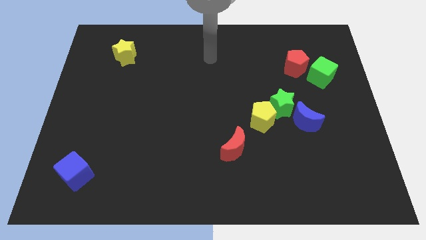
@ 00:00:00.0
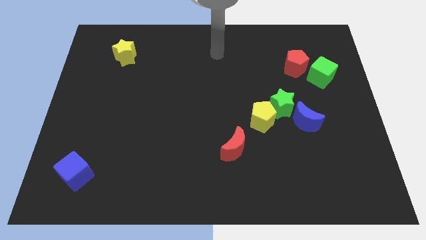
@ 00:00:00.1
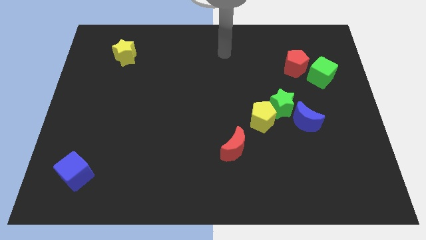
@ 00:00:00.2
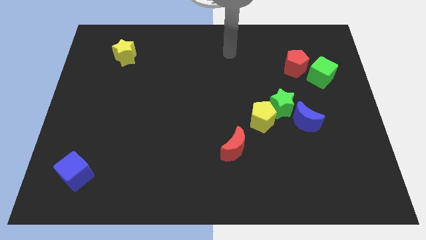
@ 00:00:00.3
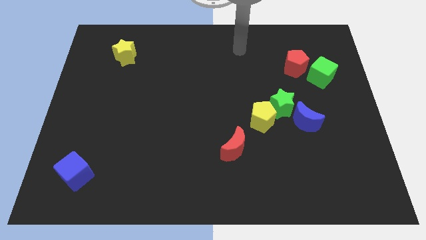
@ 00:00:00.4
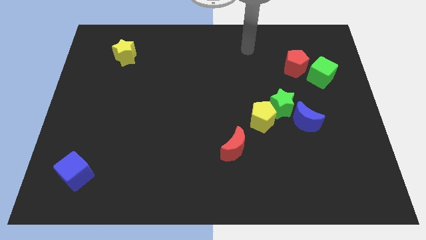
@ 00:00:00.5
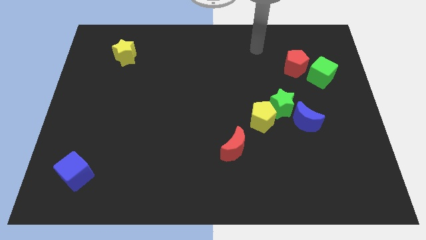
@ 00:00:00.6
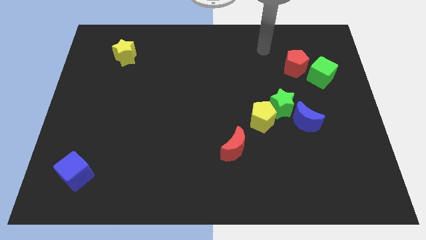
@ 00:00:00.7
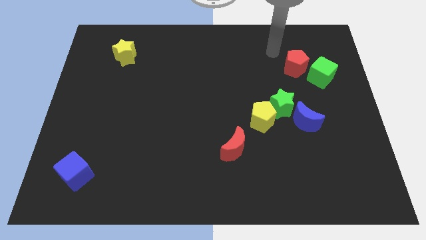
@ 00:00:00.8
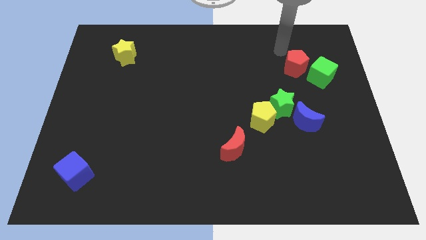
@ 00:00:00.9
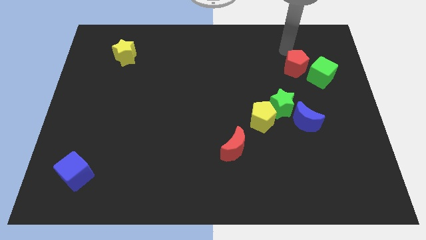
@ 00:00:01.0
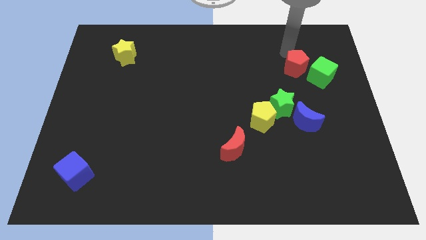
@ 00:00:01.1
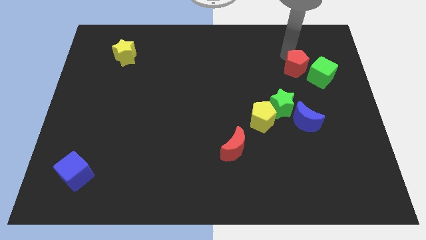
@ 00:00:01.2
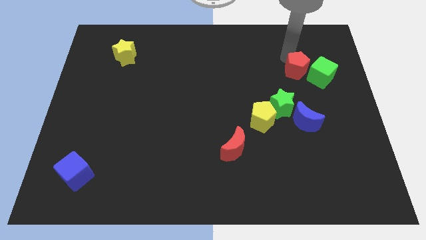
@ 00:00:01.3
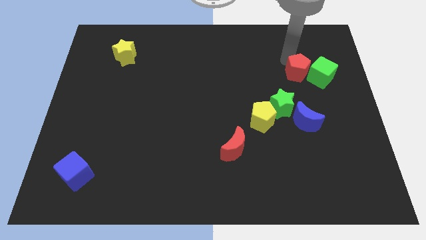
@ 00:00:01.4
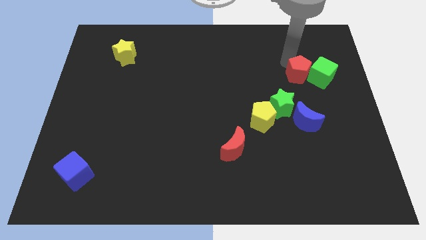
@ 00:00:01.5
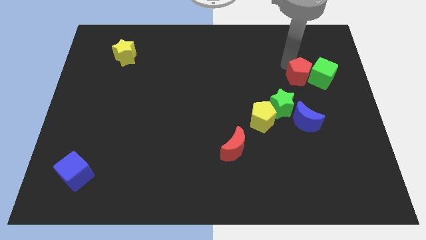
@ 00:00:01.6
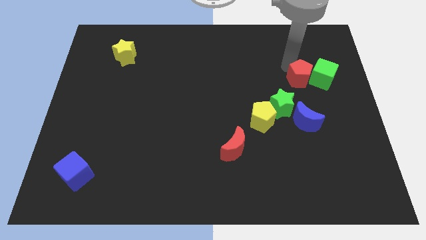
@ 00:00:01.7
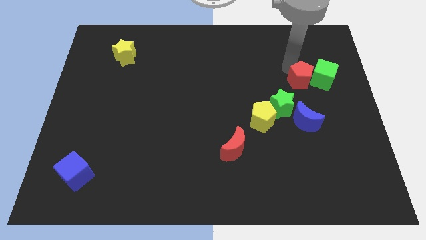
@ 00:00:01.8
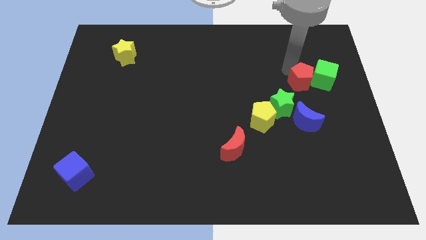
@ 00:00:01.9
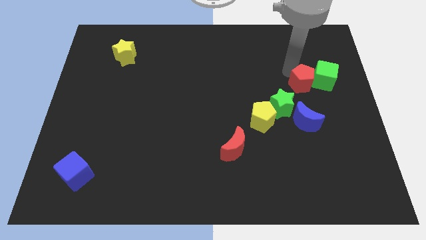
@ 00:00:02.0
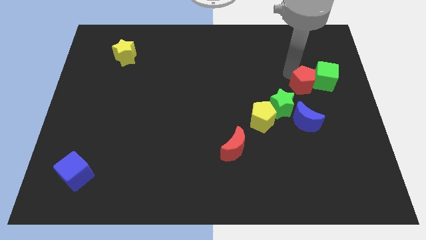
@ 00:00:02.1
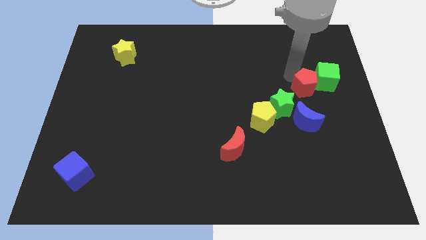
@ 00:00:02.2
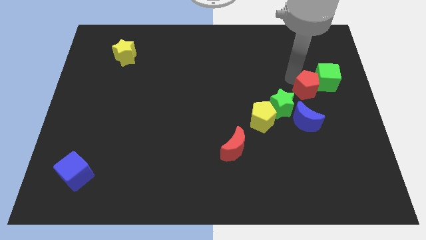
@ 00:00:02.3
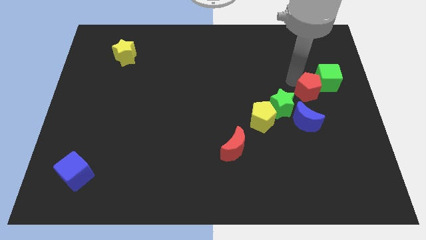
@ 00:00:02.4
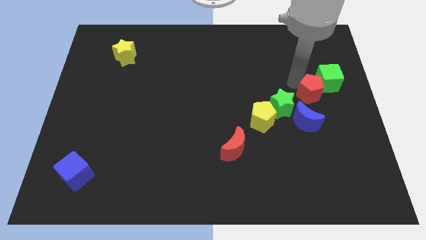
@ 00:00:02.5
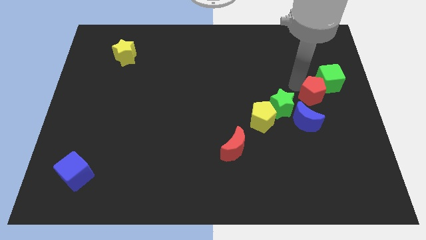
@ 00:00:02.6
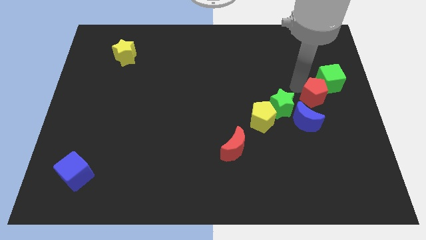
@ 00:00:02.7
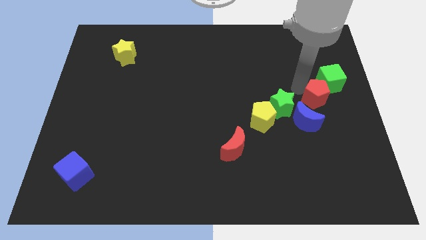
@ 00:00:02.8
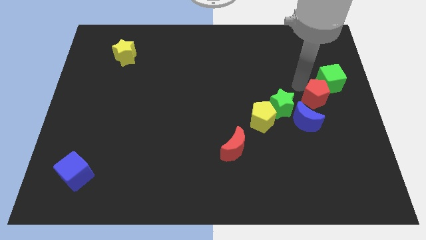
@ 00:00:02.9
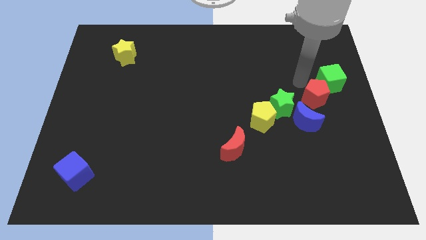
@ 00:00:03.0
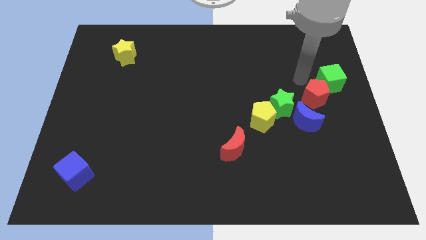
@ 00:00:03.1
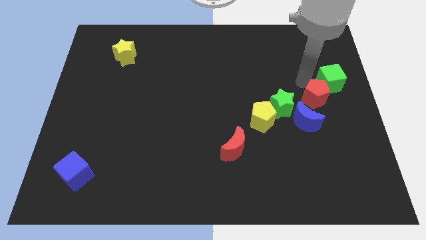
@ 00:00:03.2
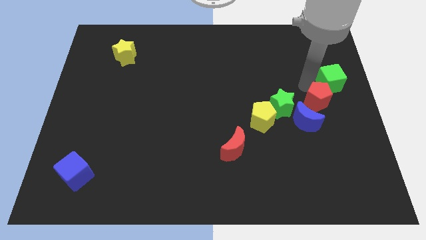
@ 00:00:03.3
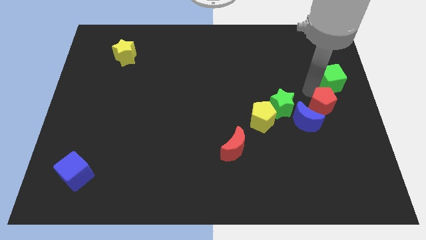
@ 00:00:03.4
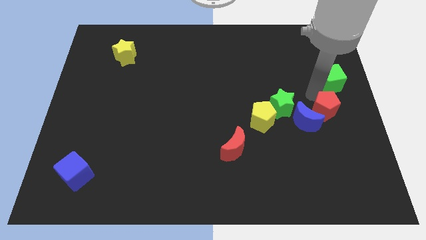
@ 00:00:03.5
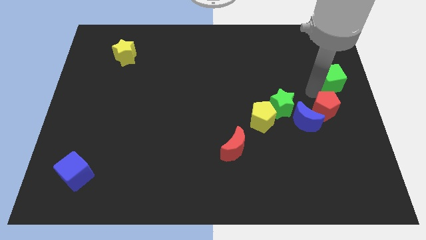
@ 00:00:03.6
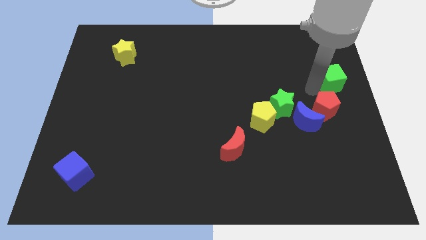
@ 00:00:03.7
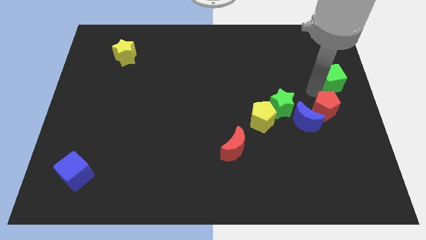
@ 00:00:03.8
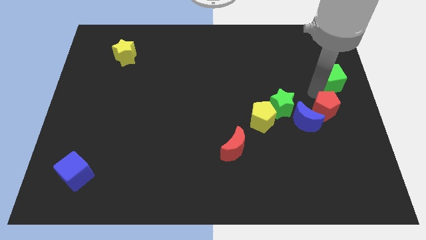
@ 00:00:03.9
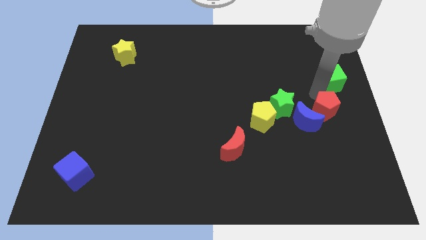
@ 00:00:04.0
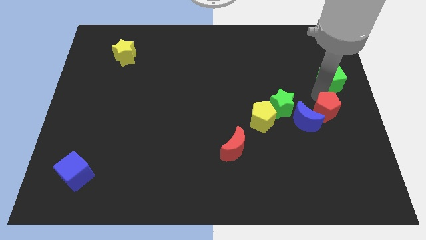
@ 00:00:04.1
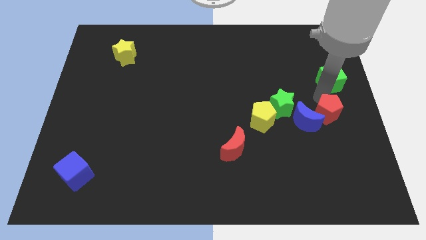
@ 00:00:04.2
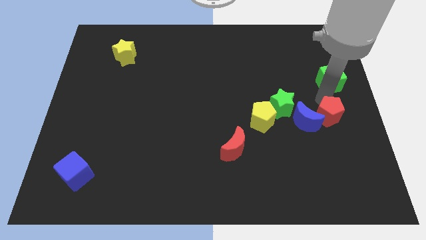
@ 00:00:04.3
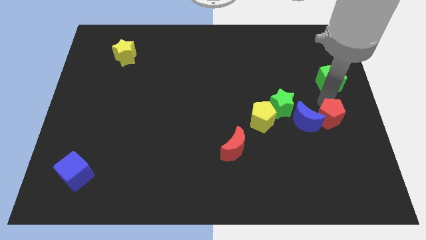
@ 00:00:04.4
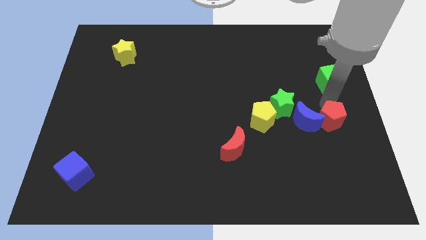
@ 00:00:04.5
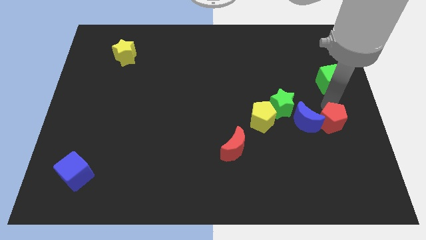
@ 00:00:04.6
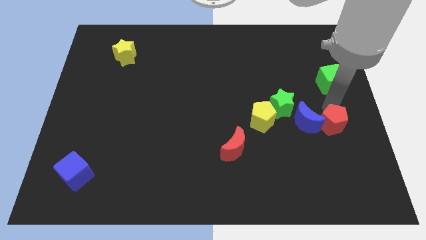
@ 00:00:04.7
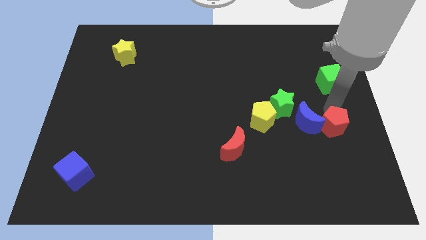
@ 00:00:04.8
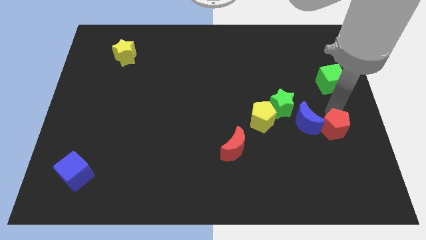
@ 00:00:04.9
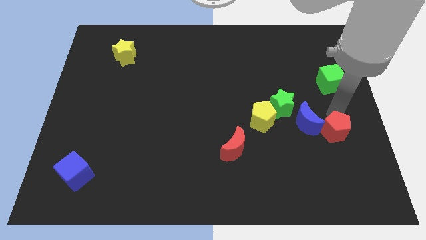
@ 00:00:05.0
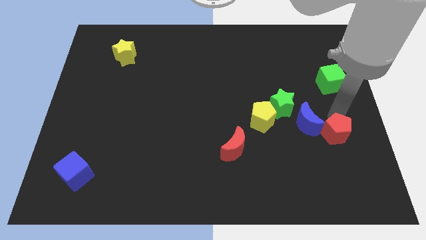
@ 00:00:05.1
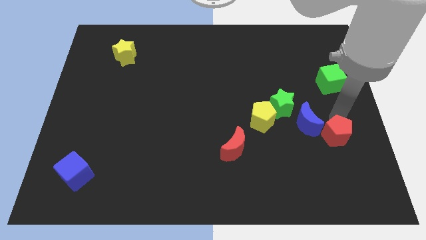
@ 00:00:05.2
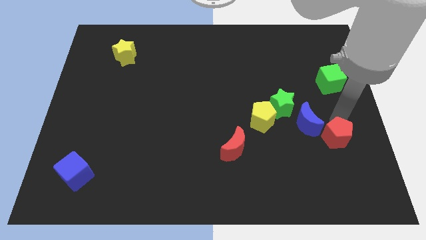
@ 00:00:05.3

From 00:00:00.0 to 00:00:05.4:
move the red pentagon down

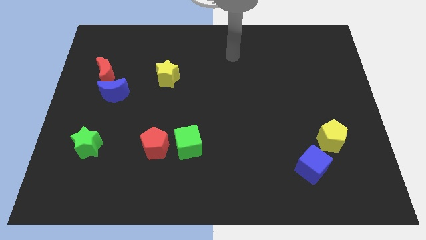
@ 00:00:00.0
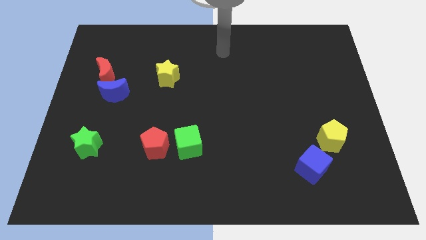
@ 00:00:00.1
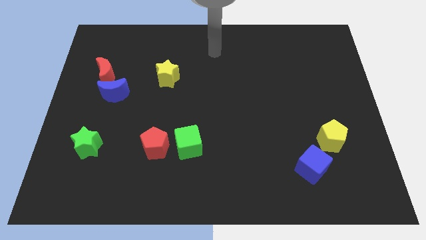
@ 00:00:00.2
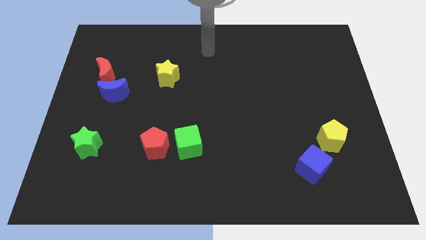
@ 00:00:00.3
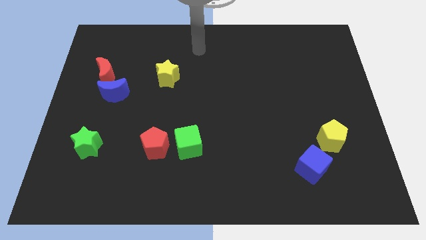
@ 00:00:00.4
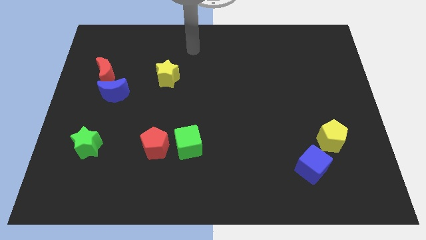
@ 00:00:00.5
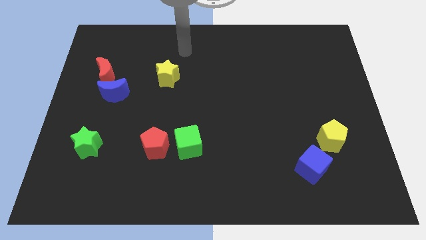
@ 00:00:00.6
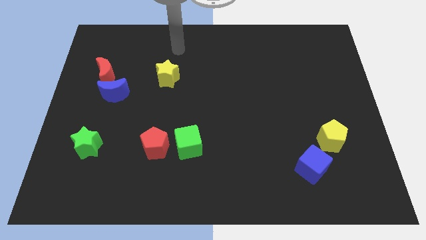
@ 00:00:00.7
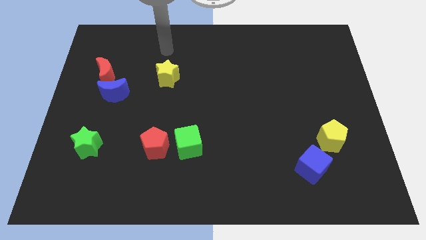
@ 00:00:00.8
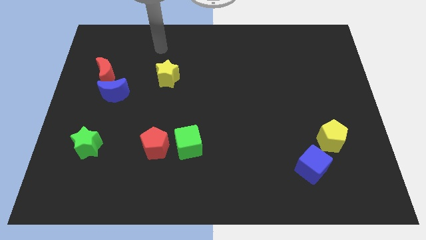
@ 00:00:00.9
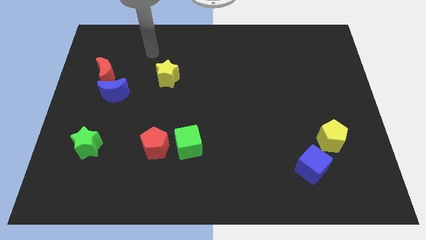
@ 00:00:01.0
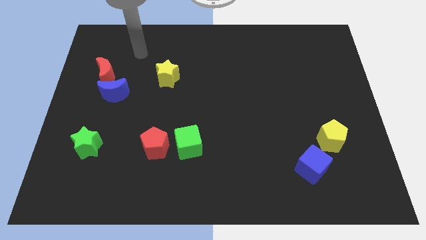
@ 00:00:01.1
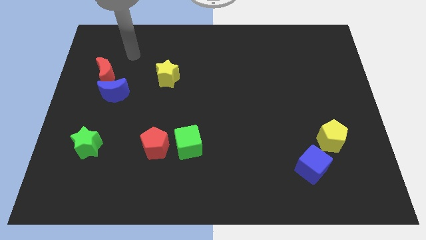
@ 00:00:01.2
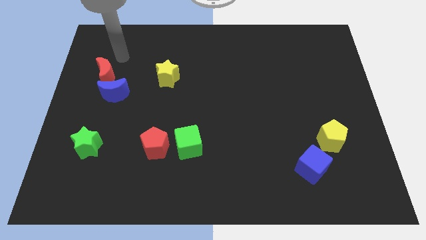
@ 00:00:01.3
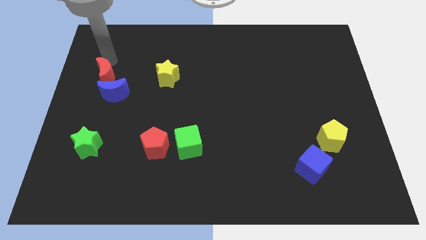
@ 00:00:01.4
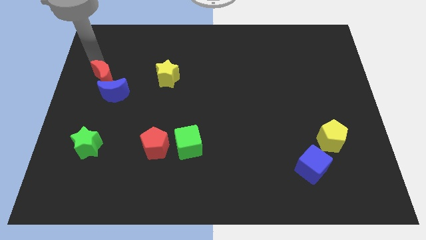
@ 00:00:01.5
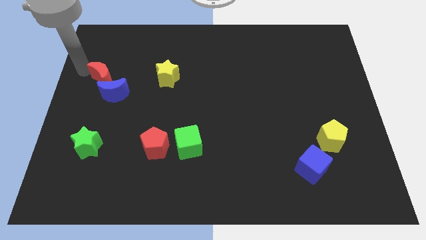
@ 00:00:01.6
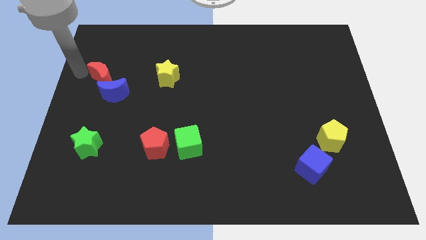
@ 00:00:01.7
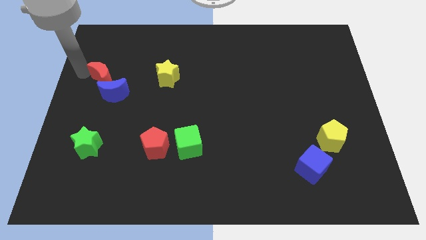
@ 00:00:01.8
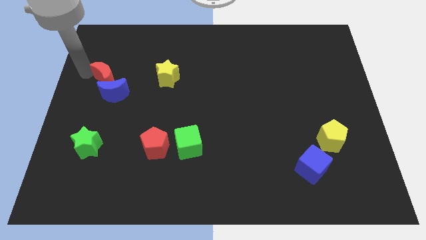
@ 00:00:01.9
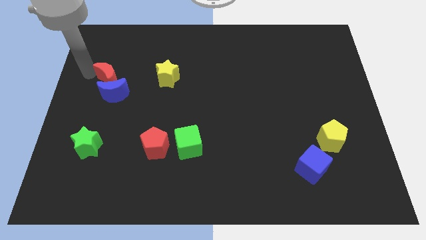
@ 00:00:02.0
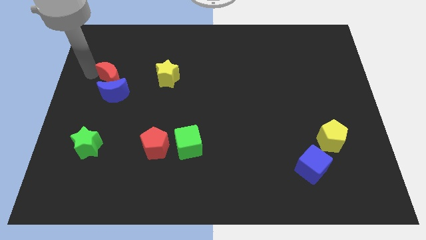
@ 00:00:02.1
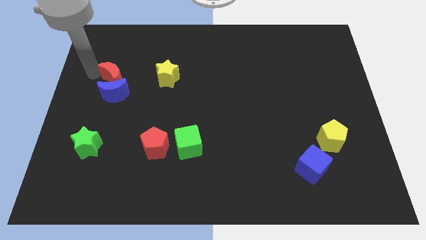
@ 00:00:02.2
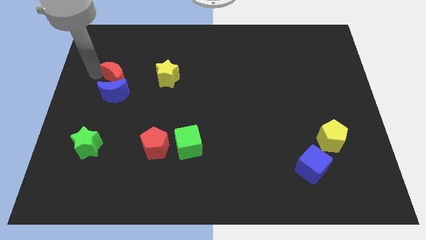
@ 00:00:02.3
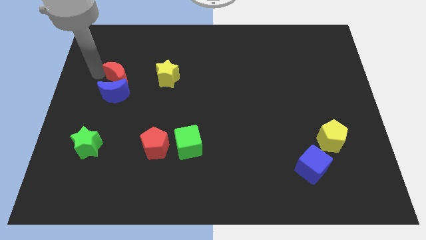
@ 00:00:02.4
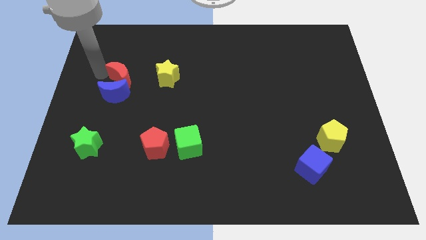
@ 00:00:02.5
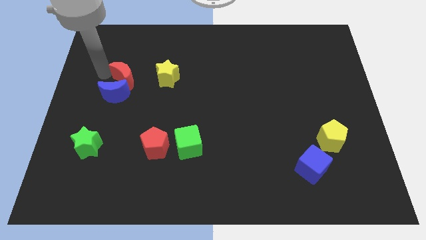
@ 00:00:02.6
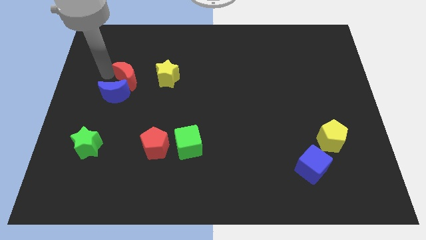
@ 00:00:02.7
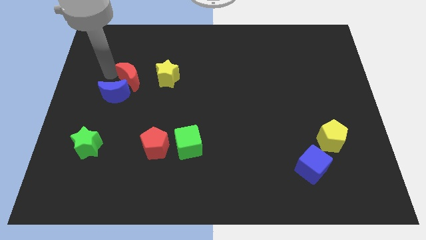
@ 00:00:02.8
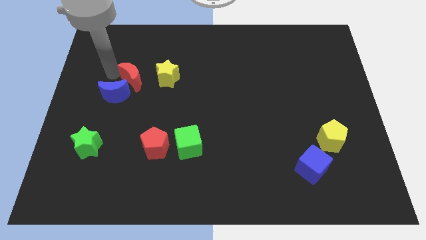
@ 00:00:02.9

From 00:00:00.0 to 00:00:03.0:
move the red moon right a little bit
